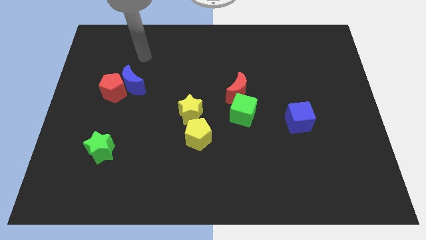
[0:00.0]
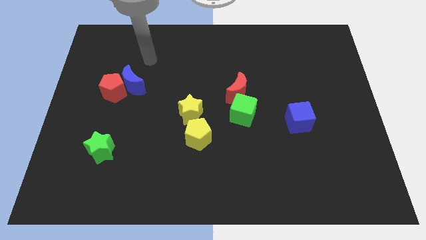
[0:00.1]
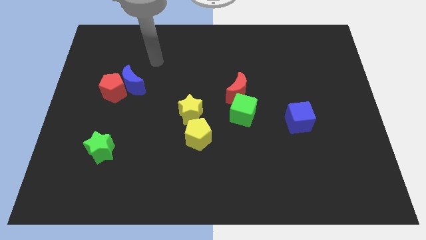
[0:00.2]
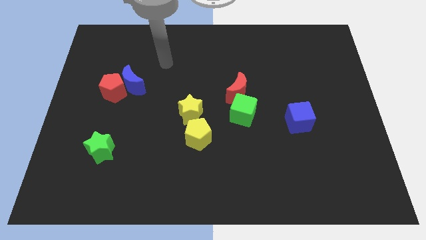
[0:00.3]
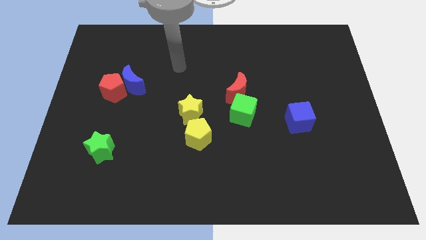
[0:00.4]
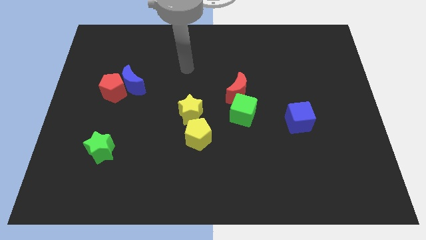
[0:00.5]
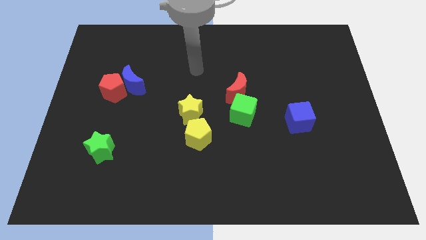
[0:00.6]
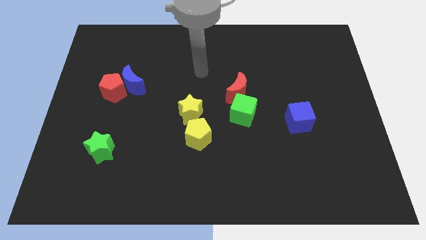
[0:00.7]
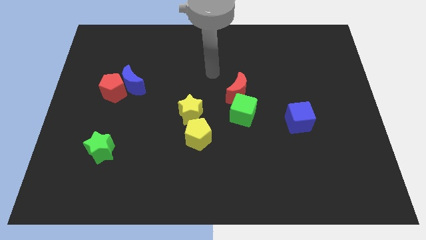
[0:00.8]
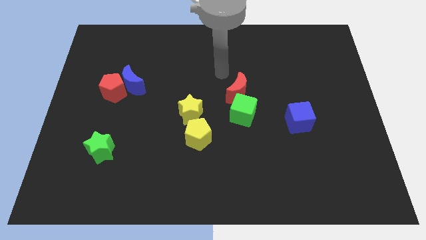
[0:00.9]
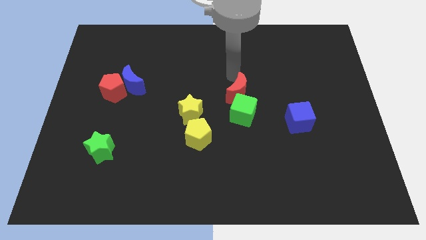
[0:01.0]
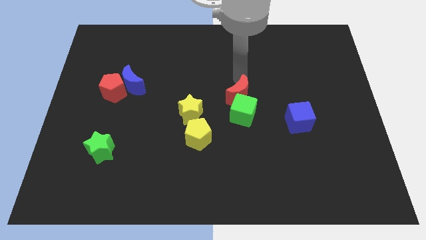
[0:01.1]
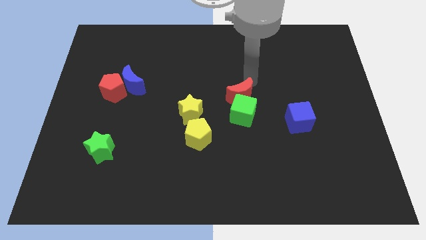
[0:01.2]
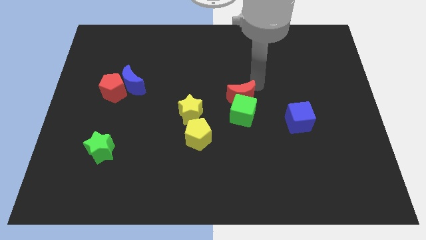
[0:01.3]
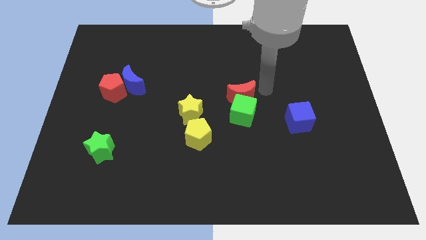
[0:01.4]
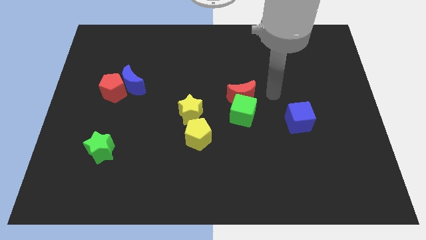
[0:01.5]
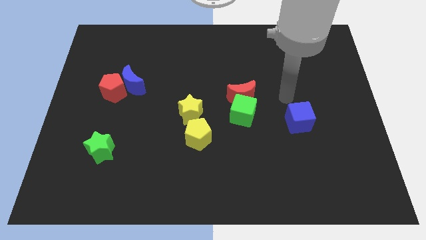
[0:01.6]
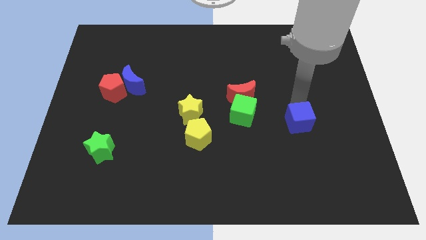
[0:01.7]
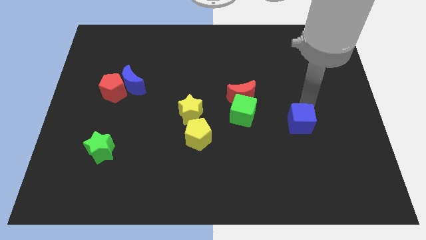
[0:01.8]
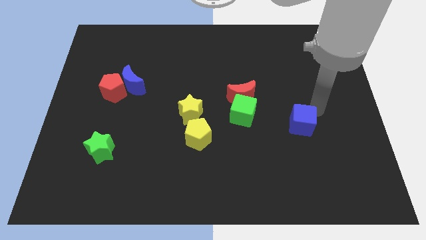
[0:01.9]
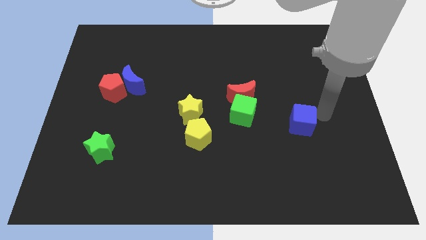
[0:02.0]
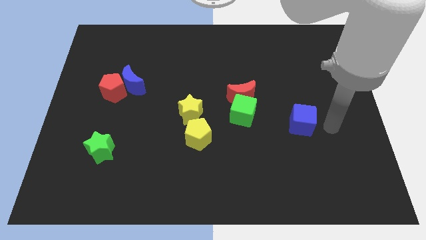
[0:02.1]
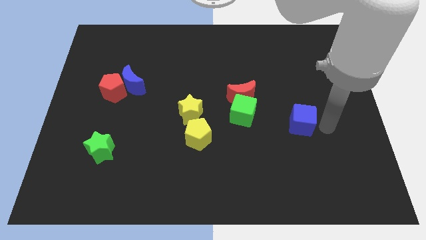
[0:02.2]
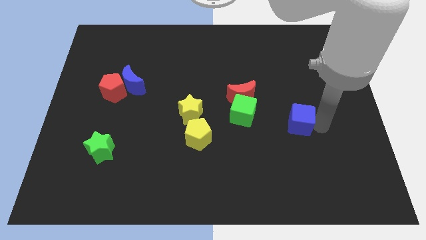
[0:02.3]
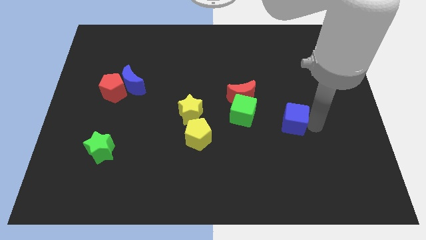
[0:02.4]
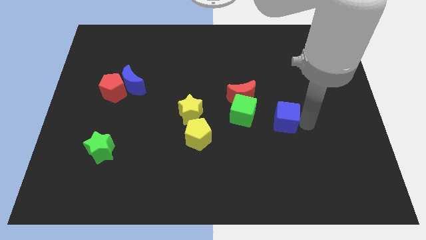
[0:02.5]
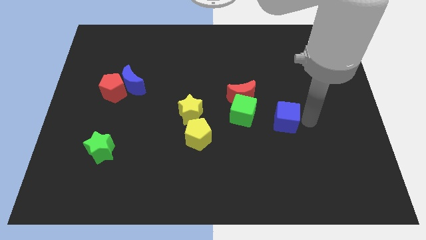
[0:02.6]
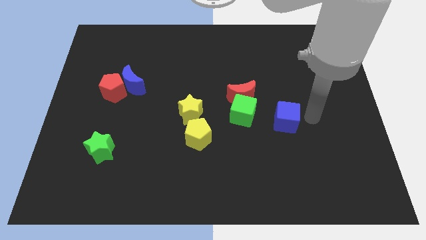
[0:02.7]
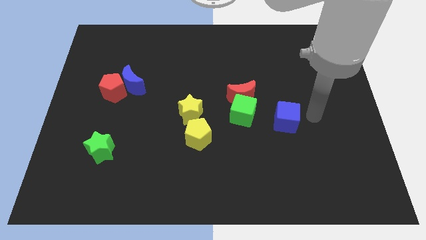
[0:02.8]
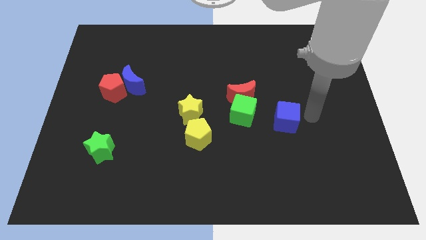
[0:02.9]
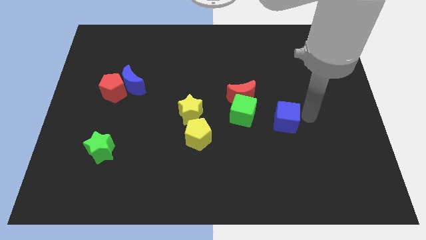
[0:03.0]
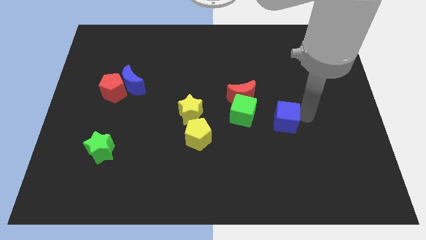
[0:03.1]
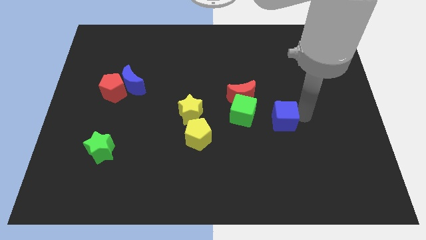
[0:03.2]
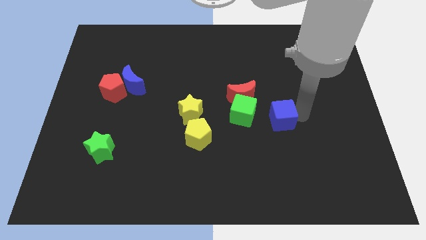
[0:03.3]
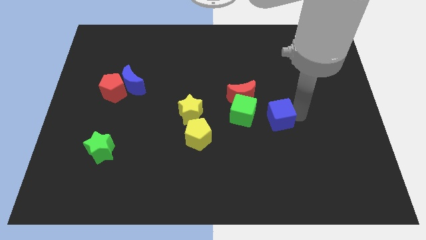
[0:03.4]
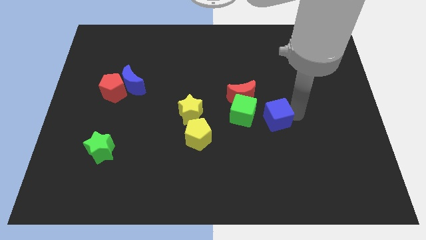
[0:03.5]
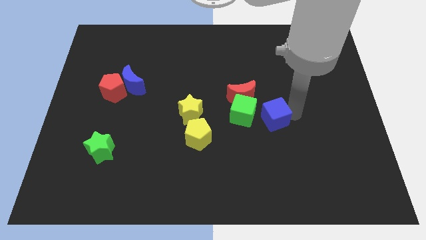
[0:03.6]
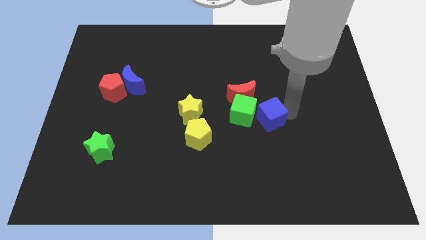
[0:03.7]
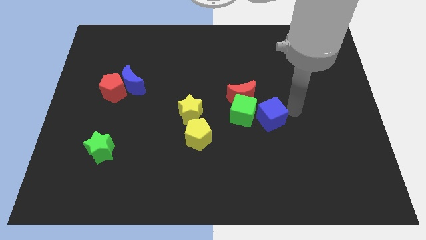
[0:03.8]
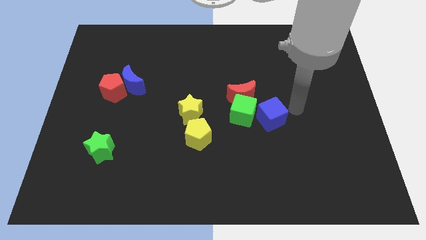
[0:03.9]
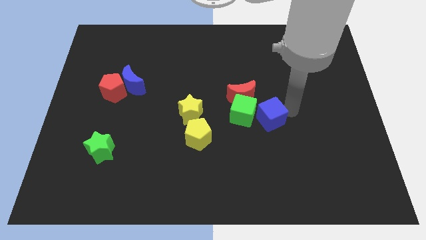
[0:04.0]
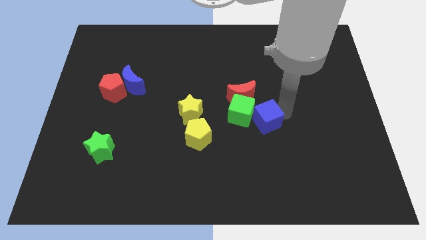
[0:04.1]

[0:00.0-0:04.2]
slightly move the blue cube to the left

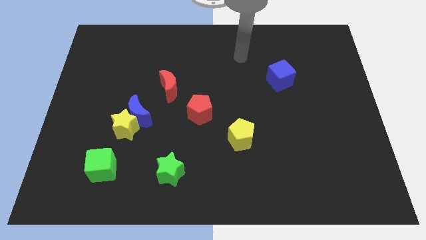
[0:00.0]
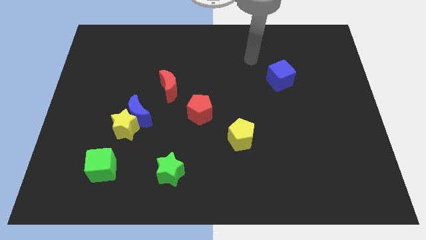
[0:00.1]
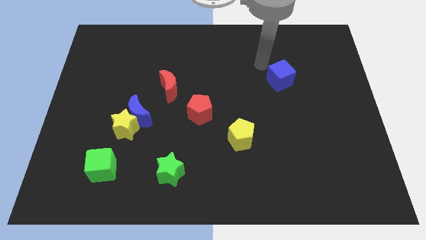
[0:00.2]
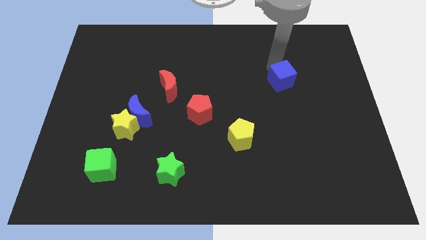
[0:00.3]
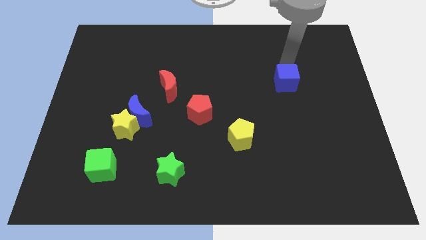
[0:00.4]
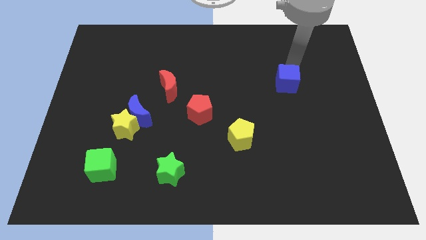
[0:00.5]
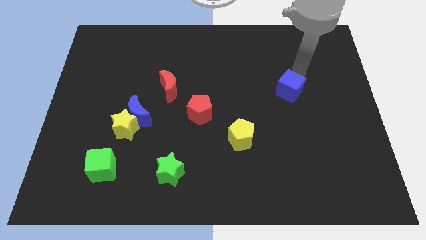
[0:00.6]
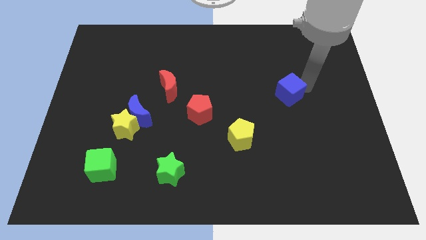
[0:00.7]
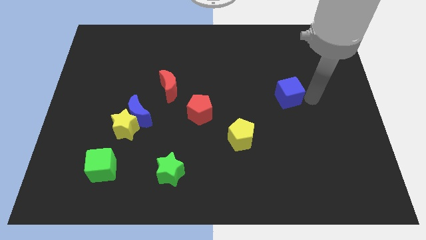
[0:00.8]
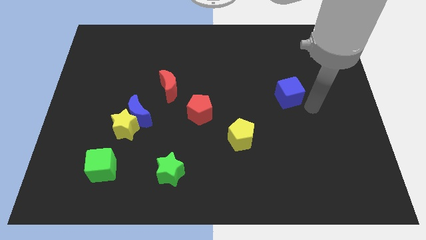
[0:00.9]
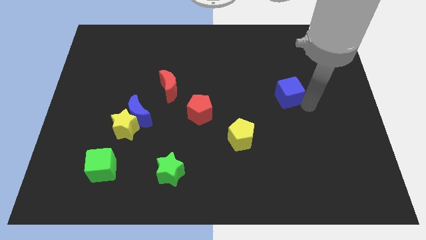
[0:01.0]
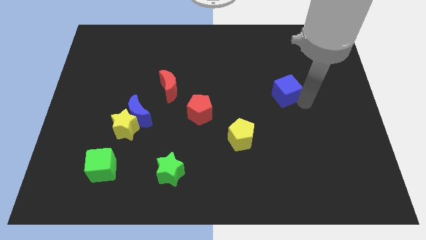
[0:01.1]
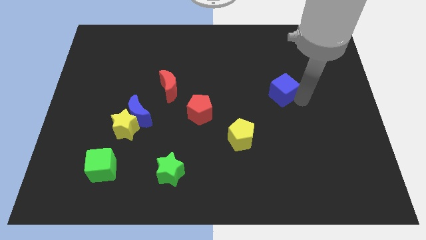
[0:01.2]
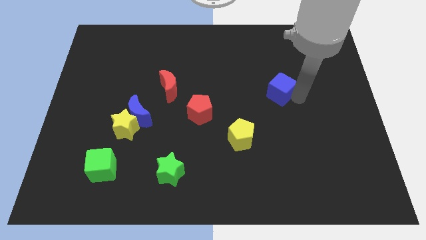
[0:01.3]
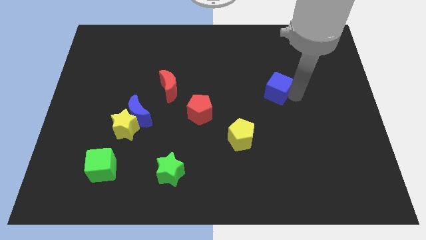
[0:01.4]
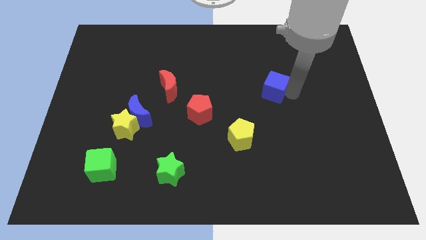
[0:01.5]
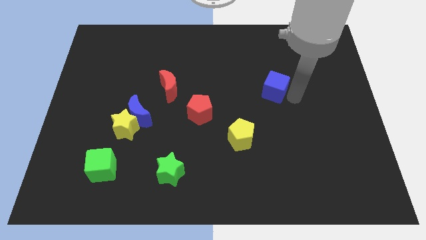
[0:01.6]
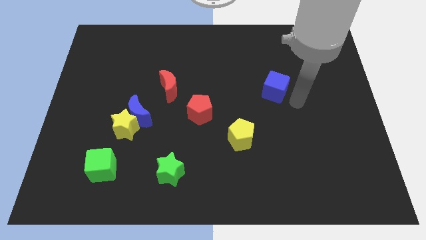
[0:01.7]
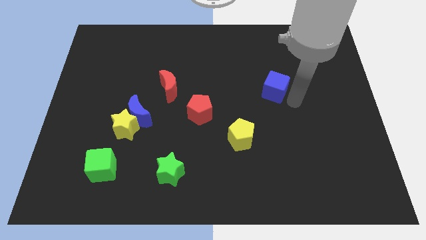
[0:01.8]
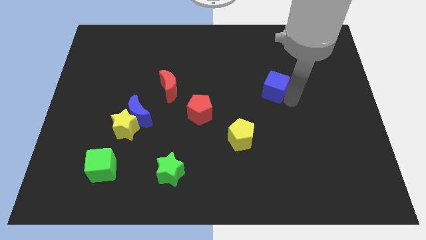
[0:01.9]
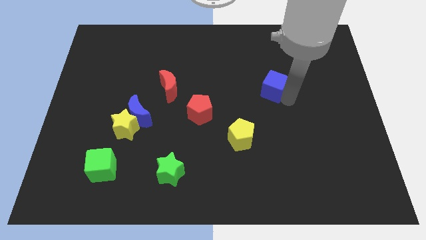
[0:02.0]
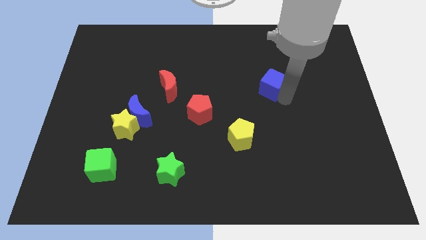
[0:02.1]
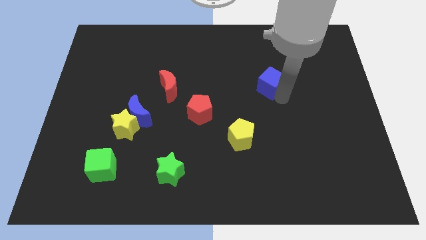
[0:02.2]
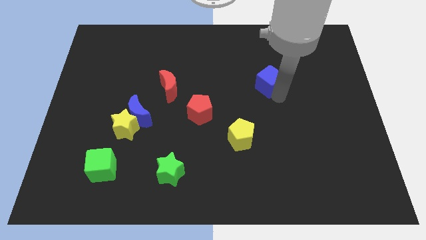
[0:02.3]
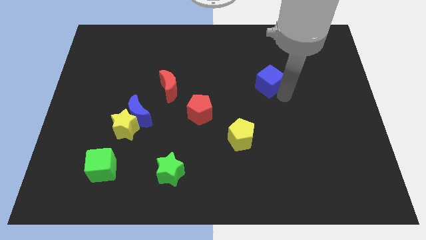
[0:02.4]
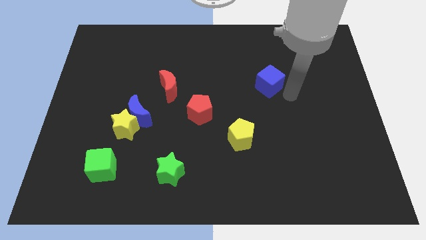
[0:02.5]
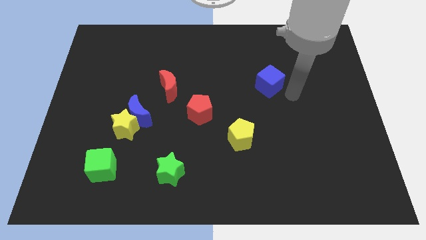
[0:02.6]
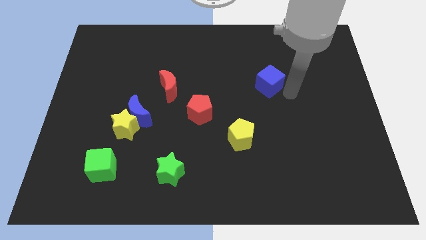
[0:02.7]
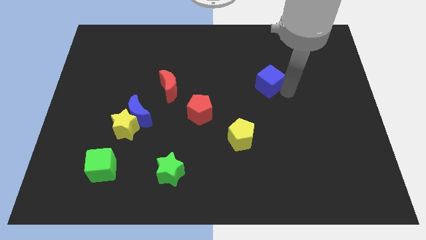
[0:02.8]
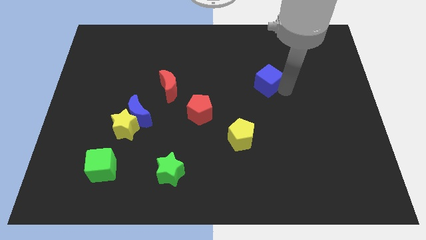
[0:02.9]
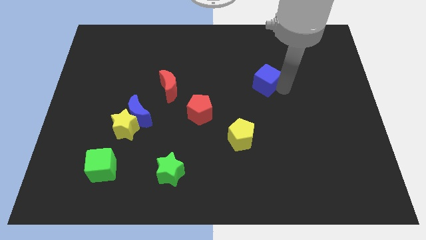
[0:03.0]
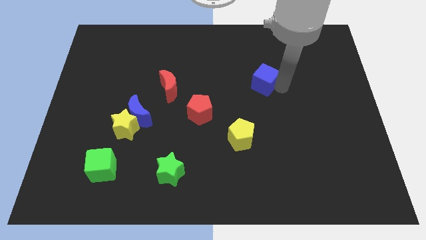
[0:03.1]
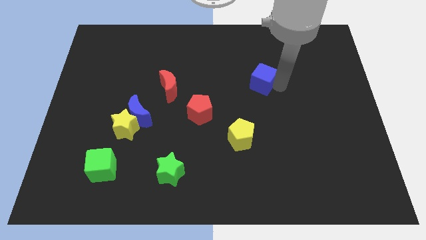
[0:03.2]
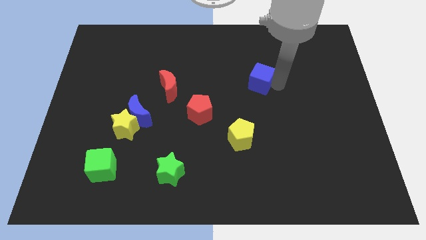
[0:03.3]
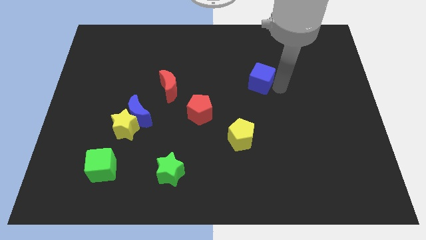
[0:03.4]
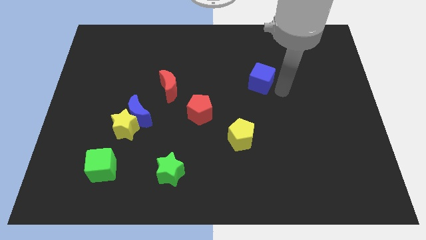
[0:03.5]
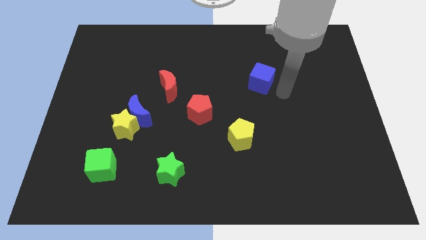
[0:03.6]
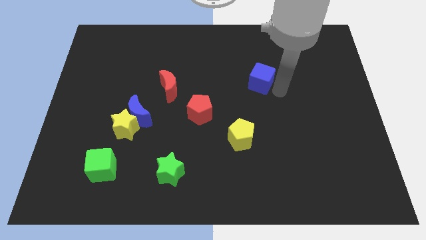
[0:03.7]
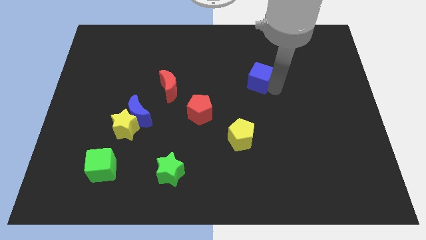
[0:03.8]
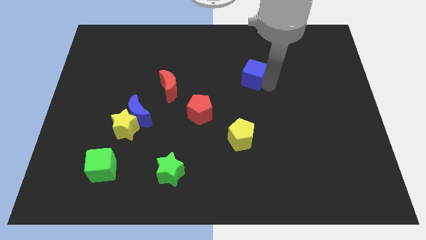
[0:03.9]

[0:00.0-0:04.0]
slide the blue cube slightly to the left
